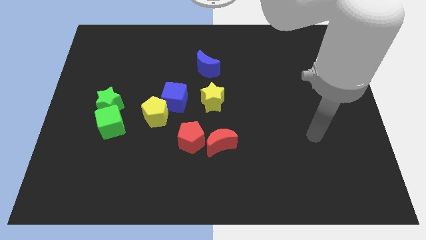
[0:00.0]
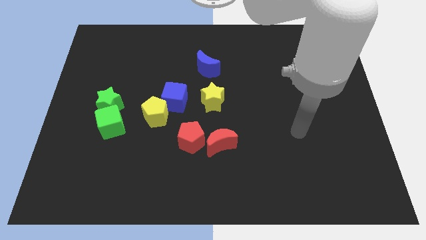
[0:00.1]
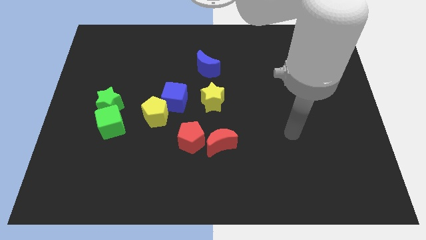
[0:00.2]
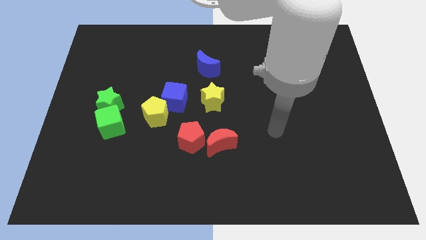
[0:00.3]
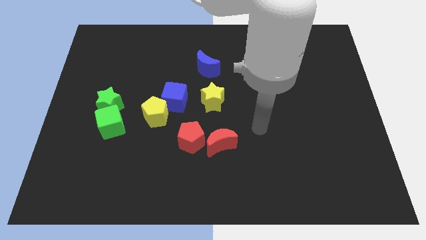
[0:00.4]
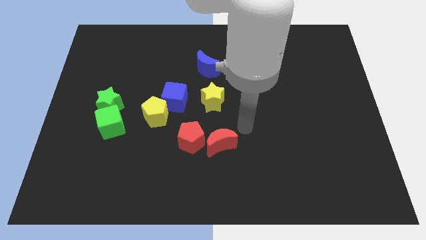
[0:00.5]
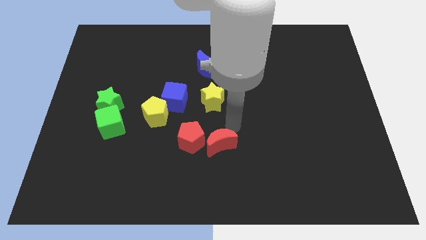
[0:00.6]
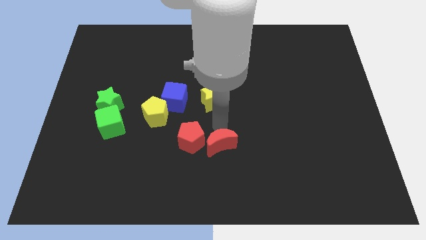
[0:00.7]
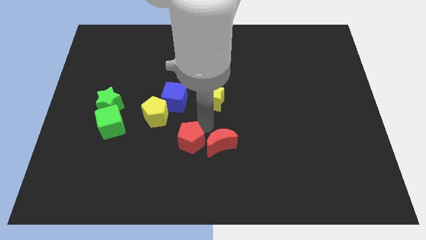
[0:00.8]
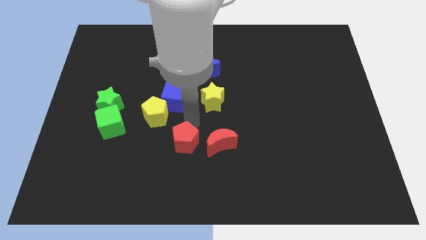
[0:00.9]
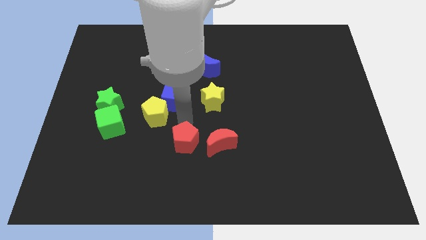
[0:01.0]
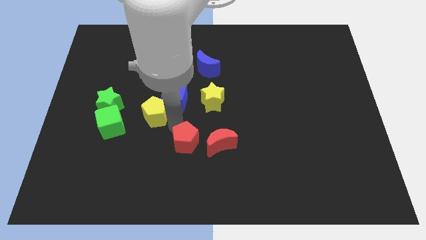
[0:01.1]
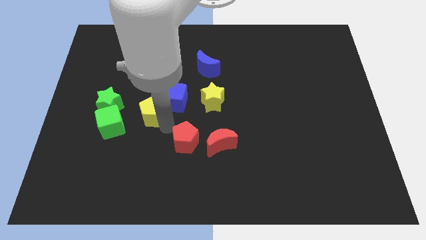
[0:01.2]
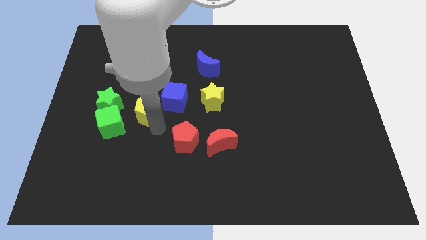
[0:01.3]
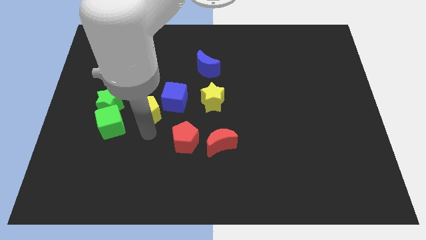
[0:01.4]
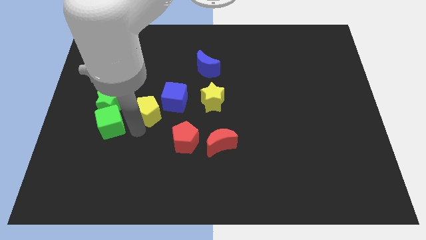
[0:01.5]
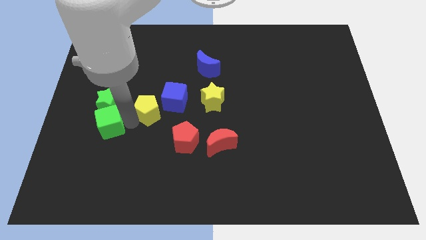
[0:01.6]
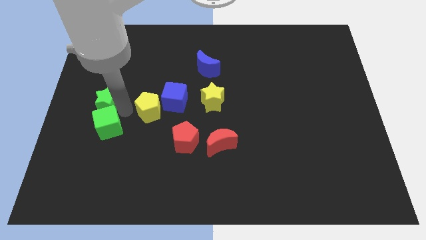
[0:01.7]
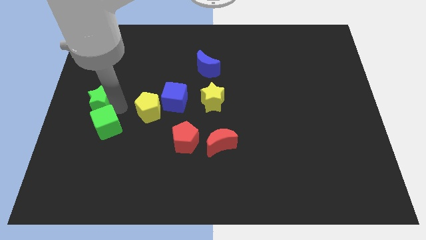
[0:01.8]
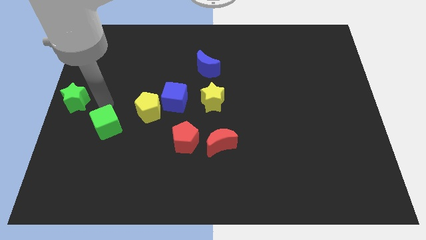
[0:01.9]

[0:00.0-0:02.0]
move the green cube away from the green star

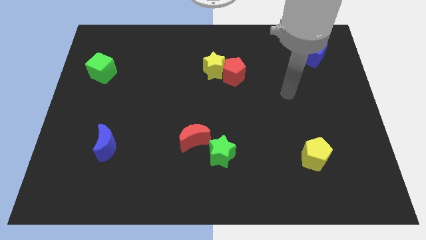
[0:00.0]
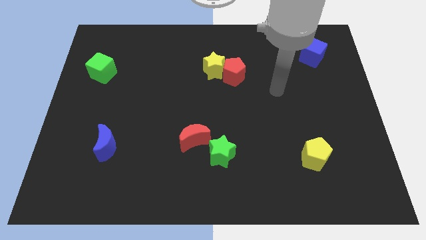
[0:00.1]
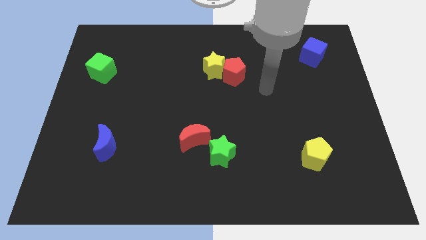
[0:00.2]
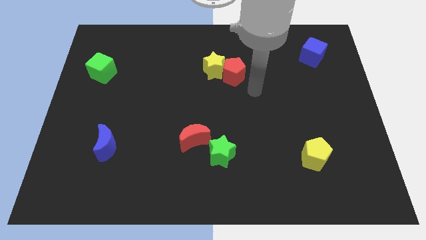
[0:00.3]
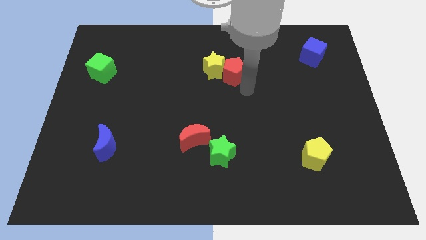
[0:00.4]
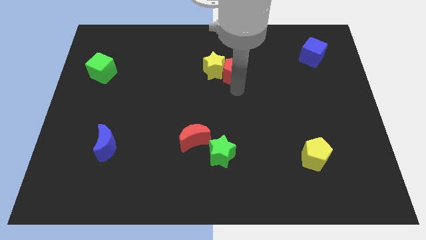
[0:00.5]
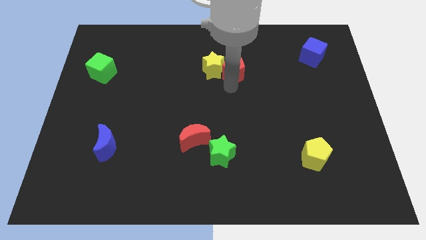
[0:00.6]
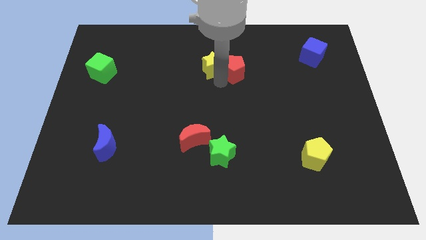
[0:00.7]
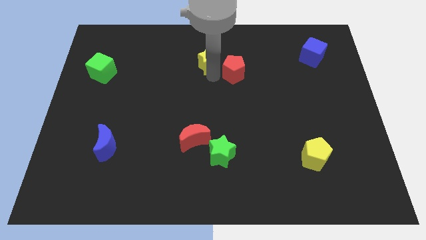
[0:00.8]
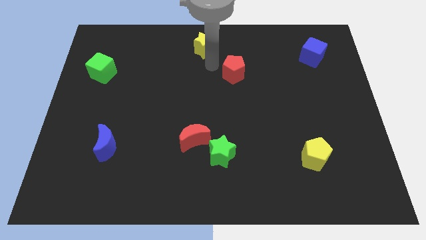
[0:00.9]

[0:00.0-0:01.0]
pull the red pentagon apart from the yellow star

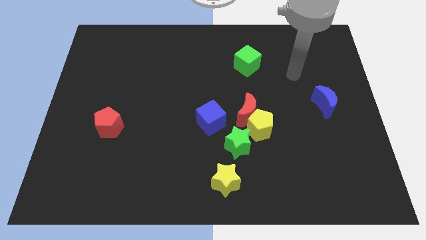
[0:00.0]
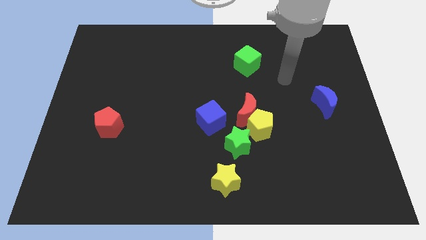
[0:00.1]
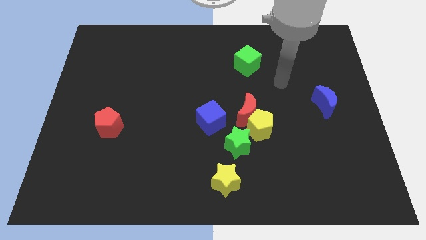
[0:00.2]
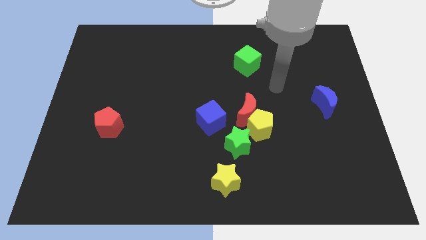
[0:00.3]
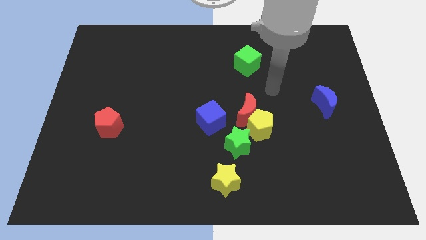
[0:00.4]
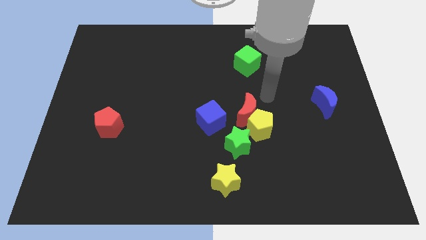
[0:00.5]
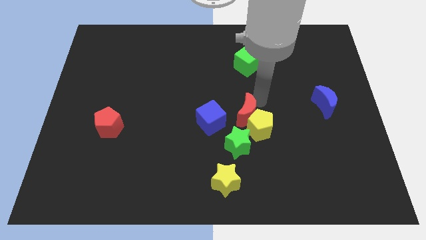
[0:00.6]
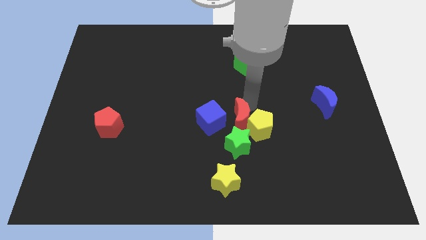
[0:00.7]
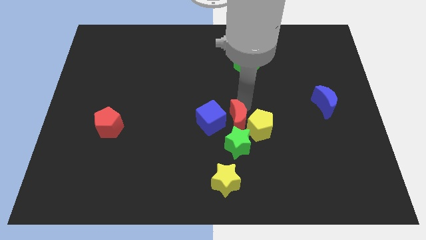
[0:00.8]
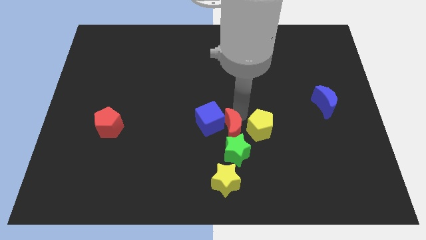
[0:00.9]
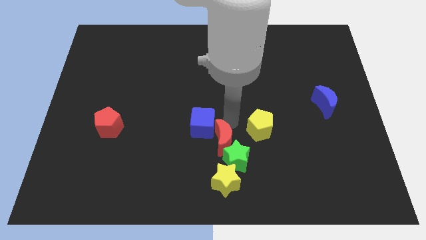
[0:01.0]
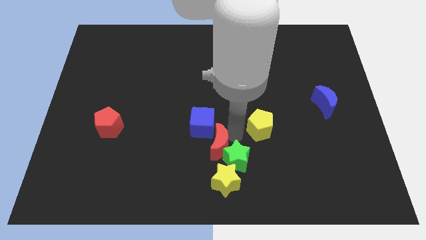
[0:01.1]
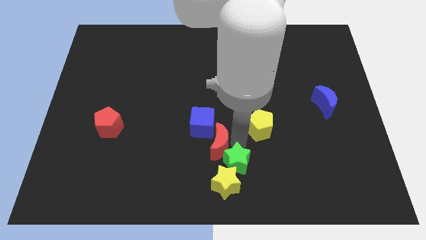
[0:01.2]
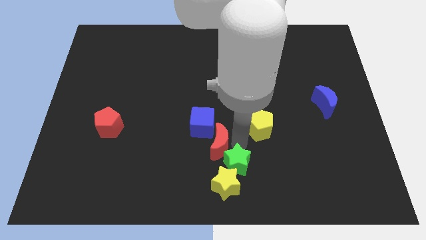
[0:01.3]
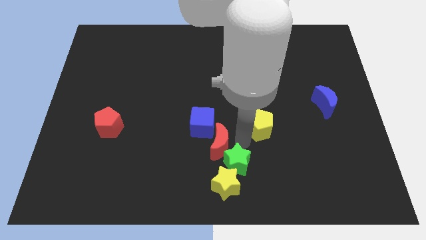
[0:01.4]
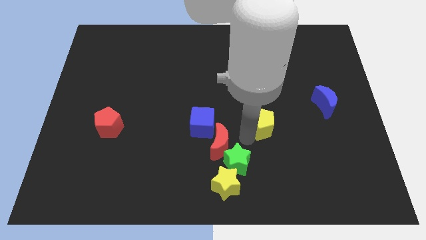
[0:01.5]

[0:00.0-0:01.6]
pull the yellow pentagon apart from the red moon and green star

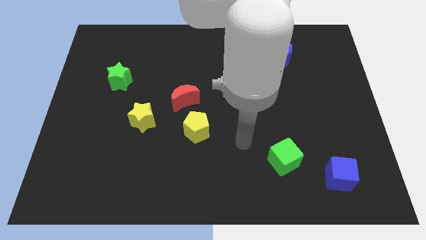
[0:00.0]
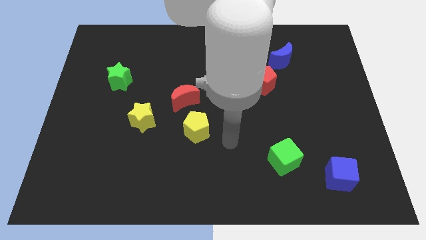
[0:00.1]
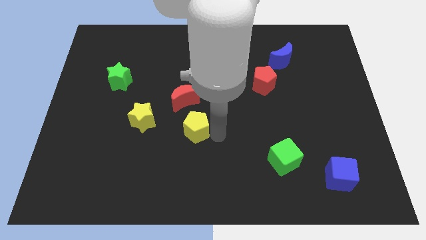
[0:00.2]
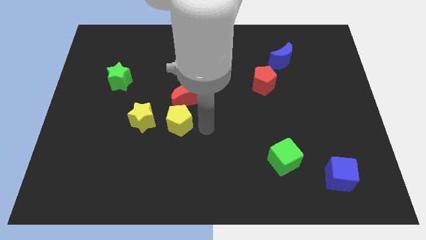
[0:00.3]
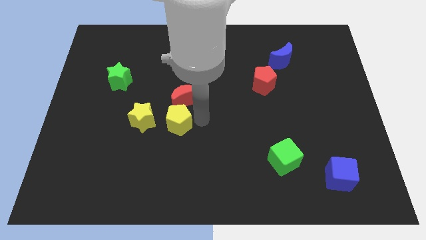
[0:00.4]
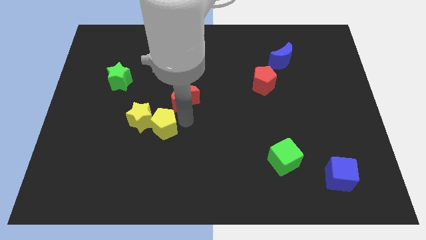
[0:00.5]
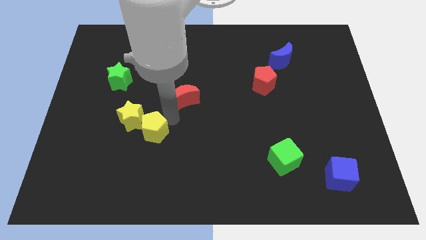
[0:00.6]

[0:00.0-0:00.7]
separate the red moon from the yellow pentagon

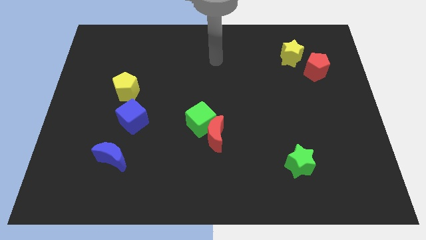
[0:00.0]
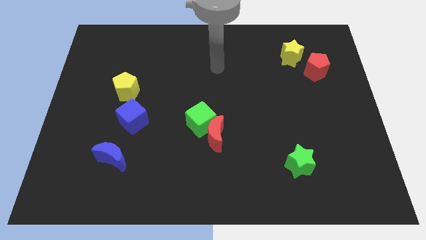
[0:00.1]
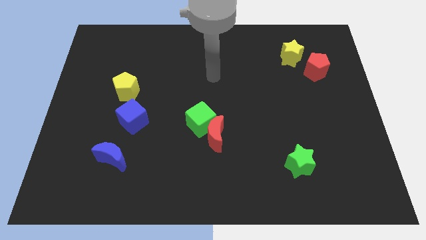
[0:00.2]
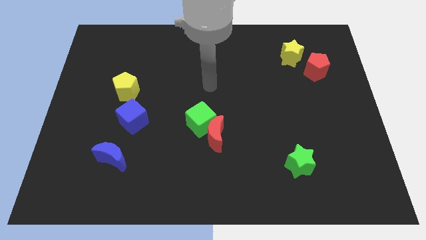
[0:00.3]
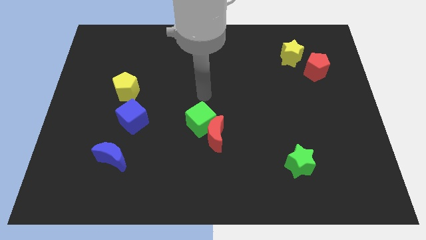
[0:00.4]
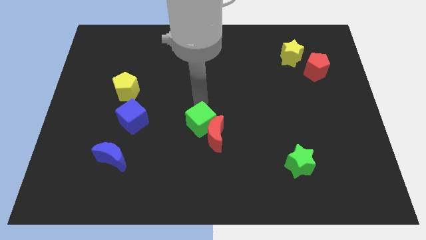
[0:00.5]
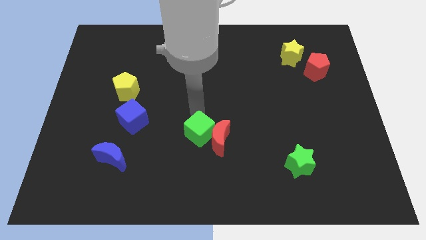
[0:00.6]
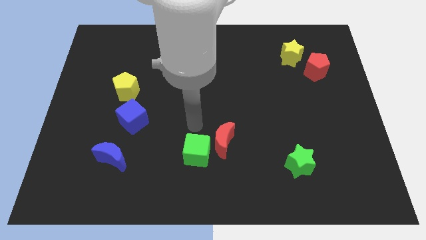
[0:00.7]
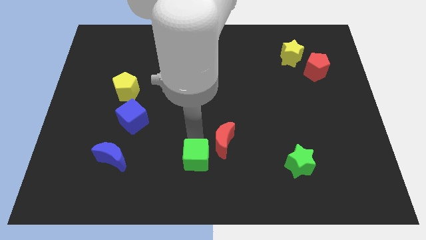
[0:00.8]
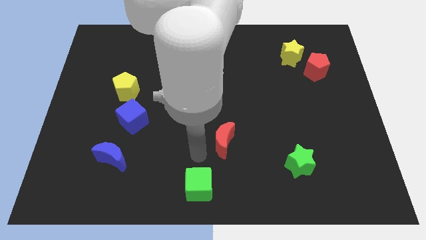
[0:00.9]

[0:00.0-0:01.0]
pull the red moon apart from the green cube

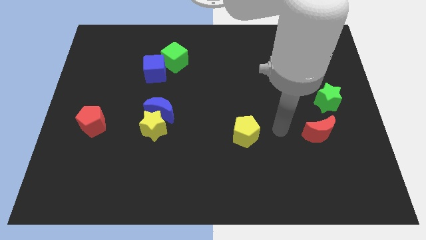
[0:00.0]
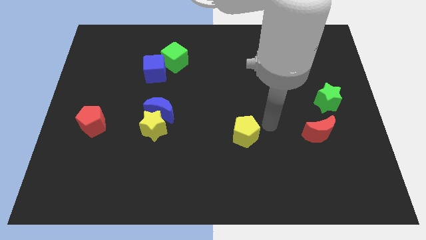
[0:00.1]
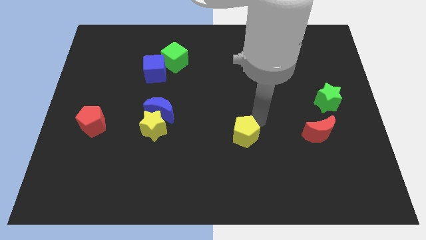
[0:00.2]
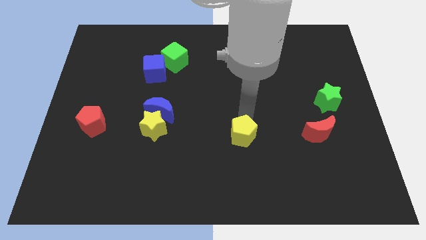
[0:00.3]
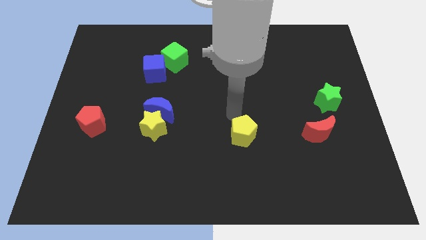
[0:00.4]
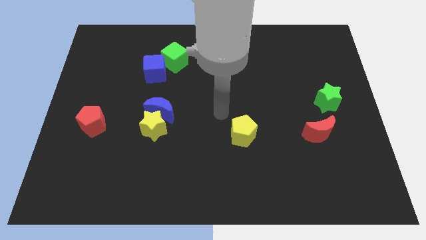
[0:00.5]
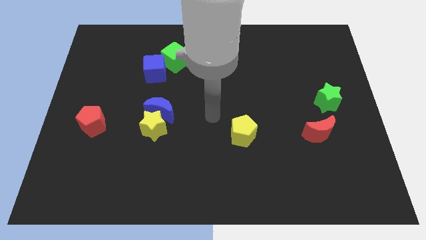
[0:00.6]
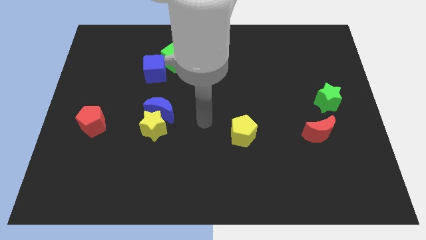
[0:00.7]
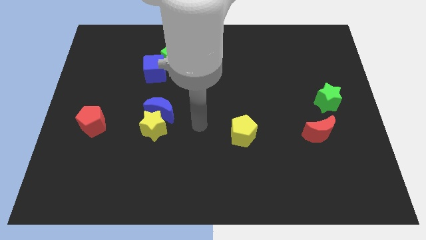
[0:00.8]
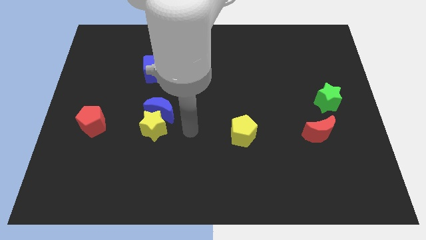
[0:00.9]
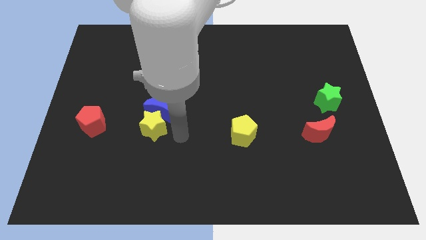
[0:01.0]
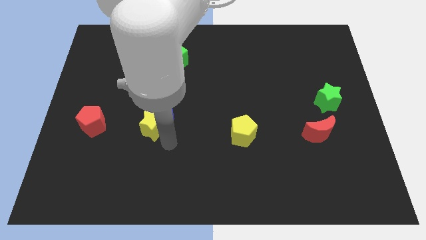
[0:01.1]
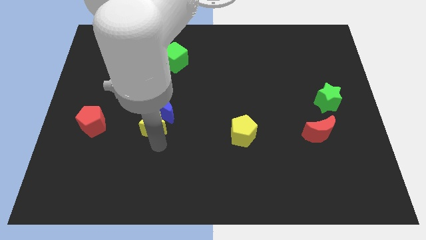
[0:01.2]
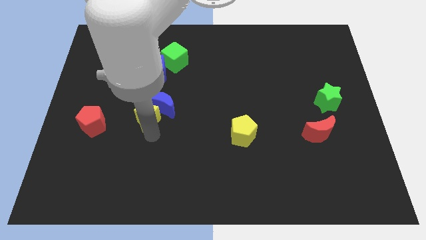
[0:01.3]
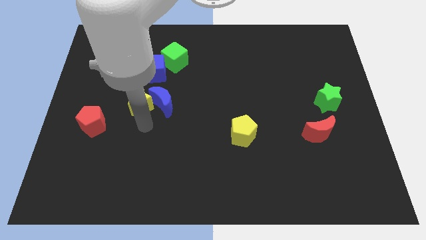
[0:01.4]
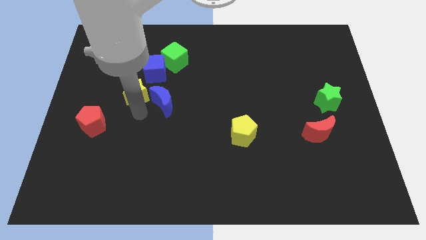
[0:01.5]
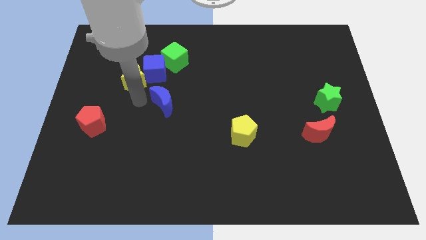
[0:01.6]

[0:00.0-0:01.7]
separate the blue moon from the yellow star

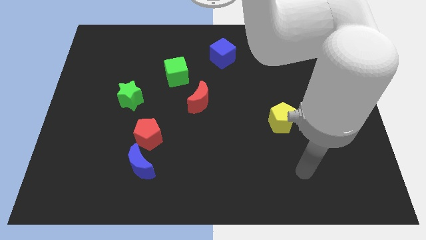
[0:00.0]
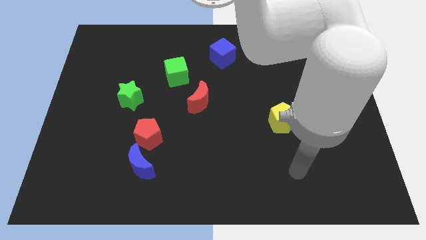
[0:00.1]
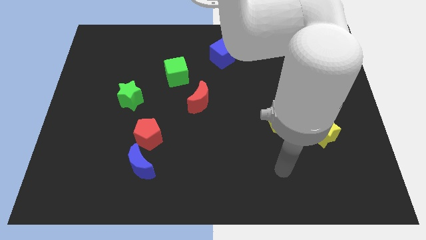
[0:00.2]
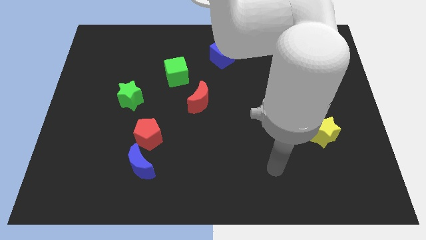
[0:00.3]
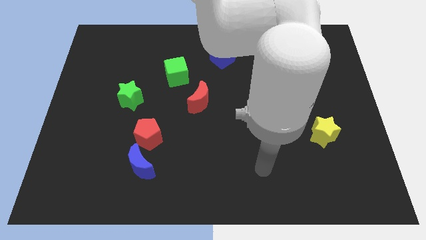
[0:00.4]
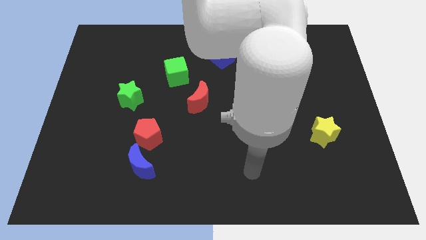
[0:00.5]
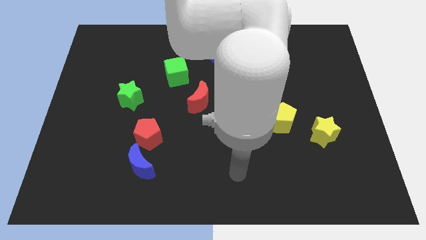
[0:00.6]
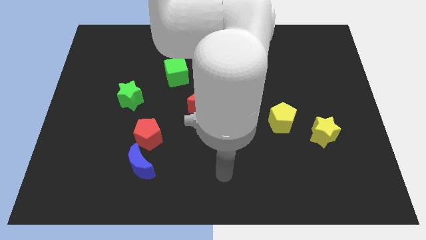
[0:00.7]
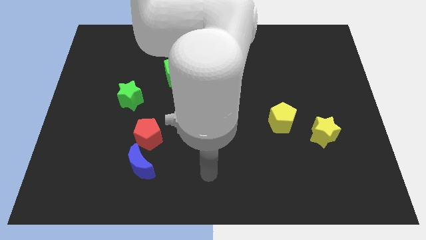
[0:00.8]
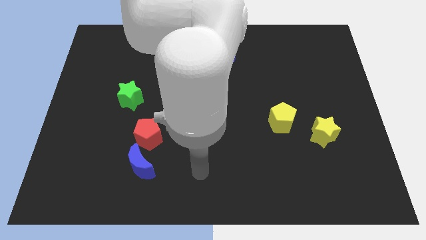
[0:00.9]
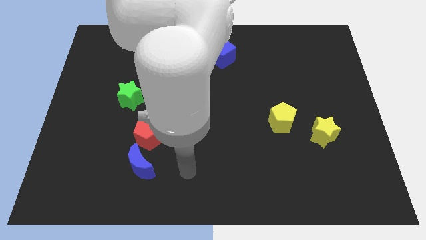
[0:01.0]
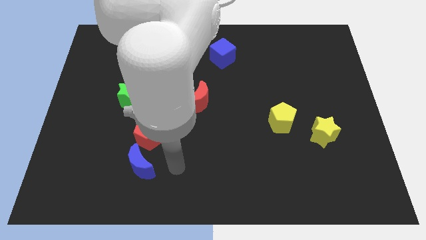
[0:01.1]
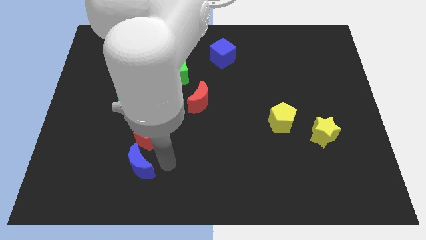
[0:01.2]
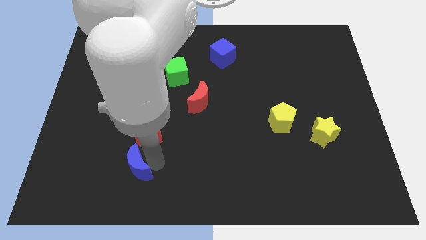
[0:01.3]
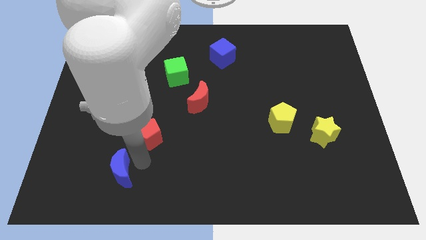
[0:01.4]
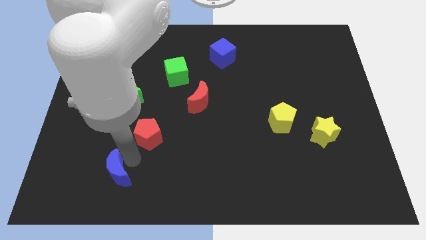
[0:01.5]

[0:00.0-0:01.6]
move the red pentagon away from the blue moon
